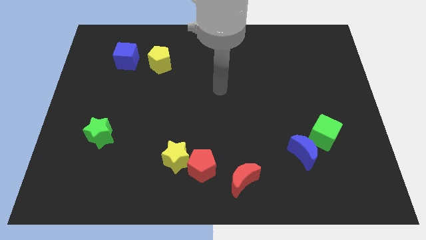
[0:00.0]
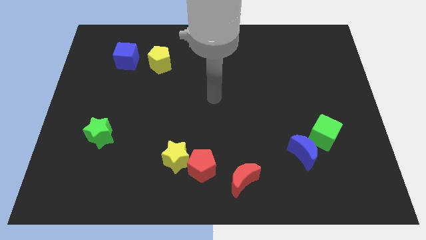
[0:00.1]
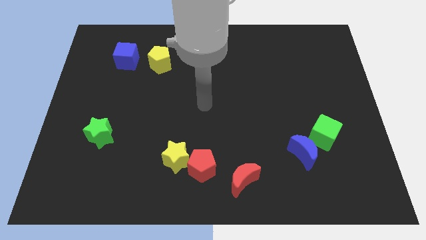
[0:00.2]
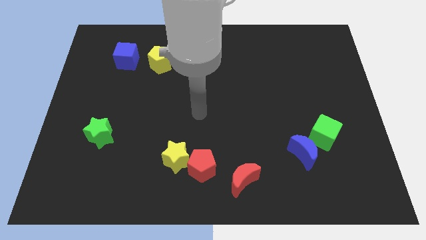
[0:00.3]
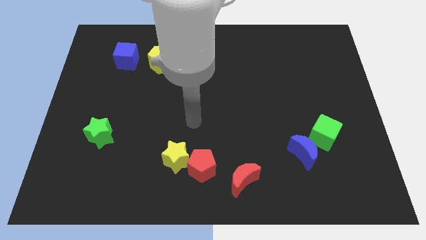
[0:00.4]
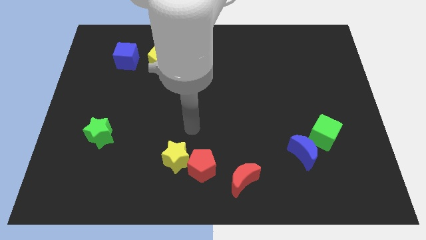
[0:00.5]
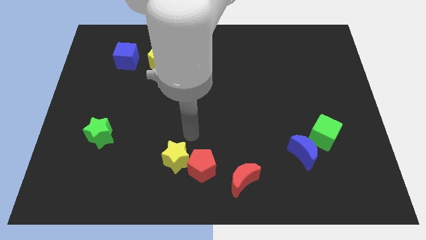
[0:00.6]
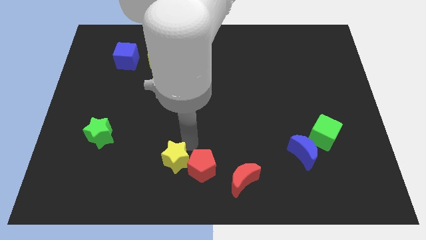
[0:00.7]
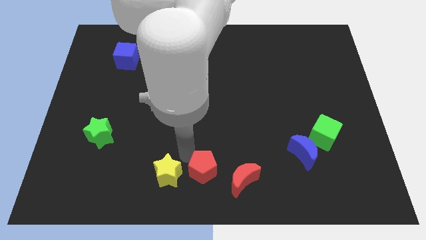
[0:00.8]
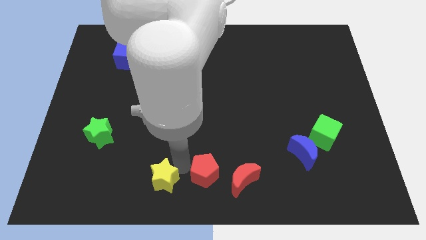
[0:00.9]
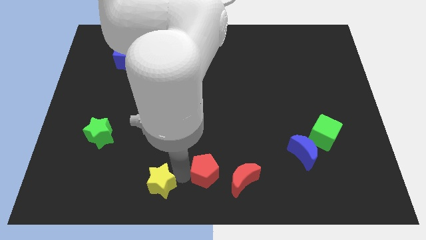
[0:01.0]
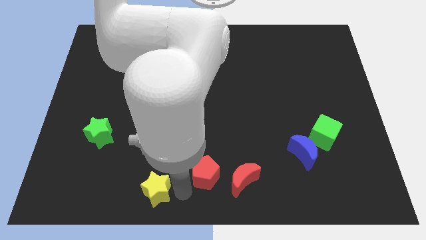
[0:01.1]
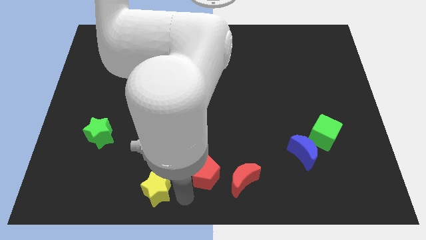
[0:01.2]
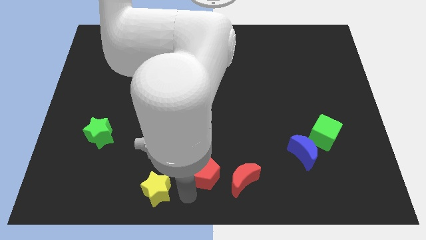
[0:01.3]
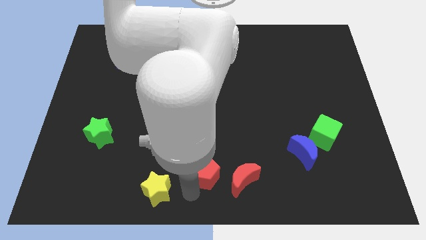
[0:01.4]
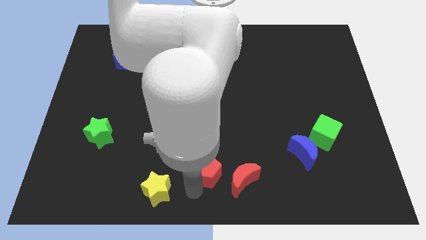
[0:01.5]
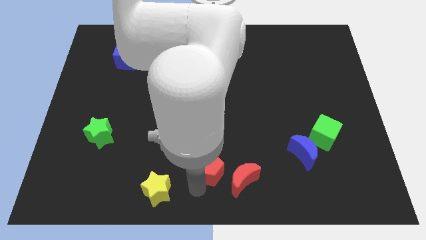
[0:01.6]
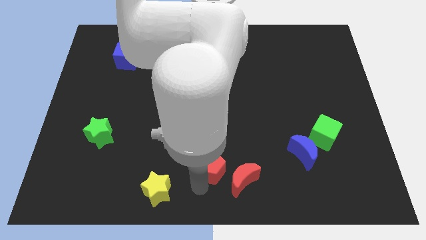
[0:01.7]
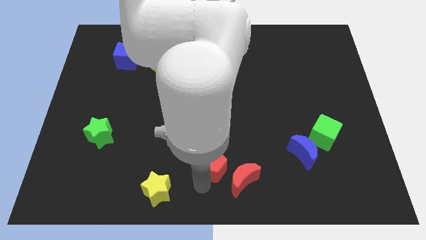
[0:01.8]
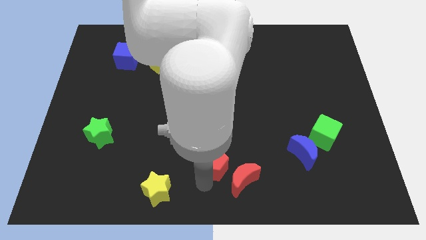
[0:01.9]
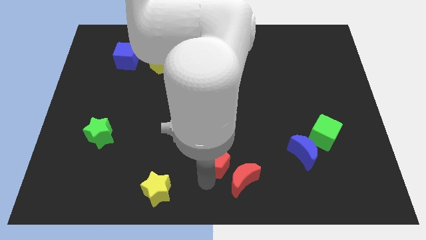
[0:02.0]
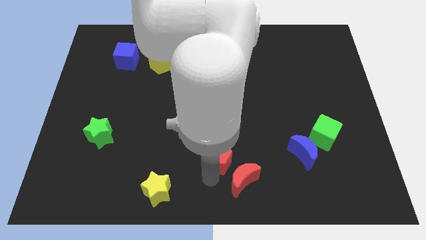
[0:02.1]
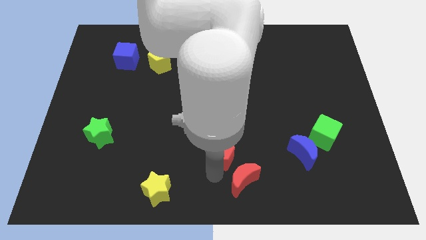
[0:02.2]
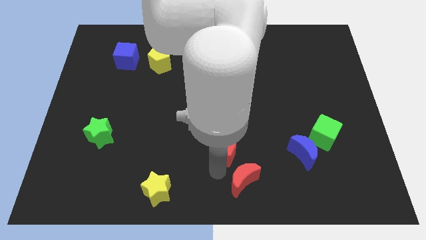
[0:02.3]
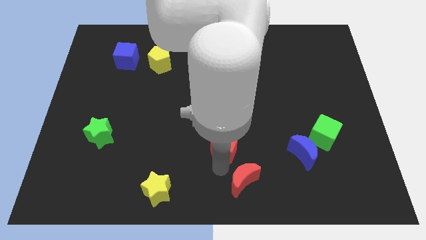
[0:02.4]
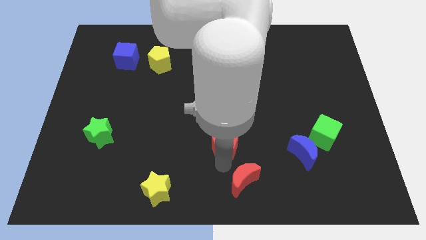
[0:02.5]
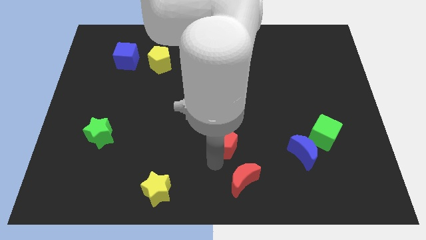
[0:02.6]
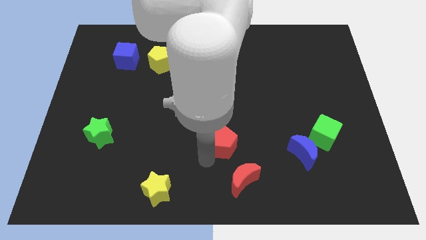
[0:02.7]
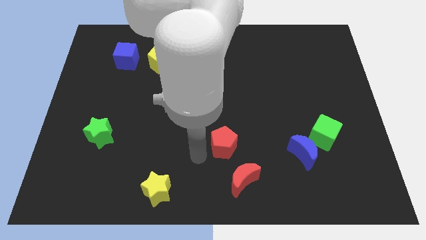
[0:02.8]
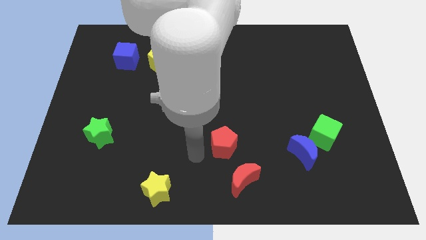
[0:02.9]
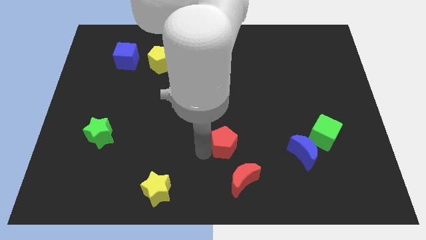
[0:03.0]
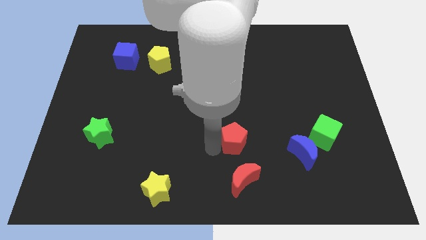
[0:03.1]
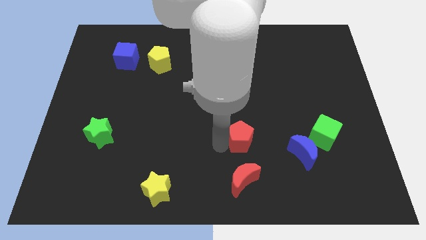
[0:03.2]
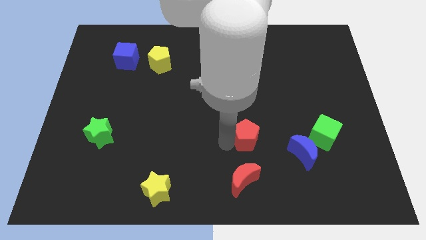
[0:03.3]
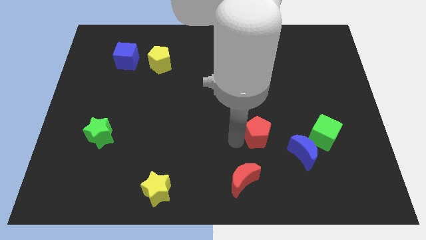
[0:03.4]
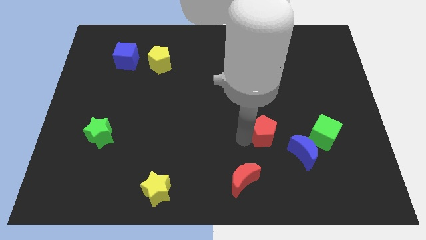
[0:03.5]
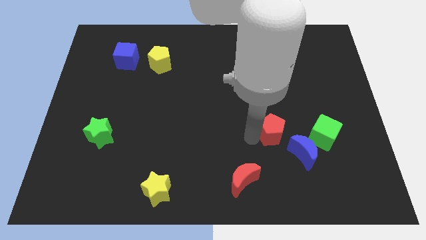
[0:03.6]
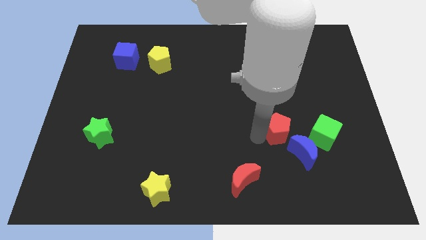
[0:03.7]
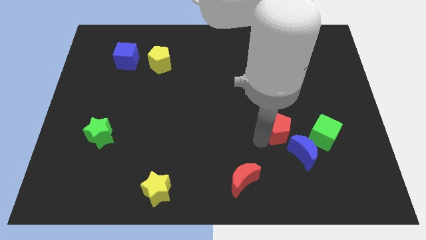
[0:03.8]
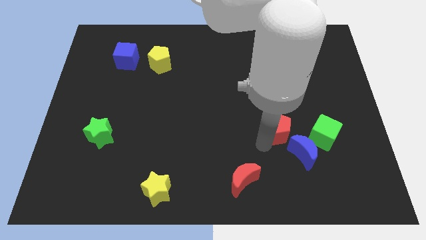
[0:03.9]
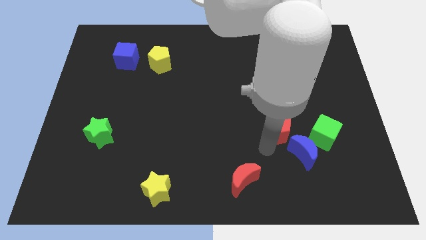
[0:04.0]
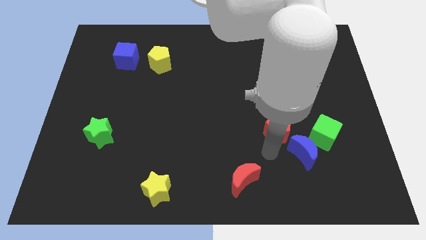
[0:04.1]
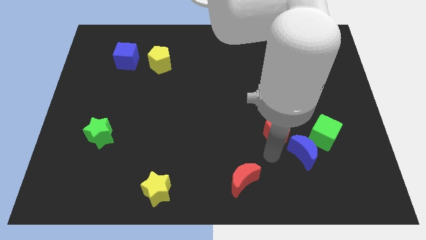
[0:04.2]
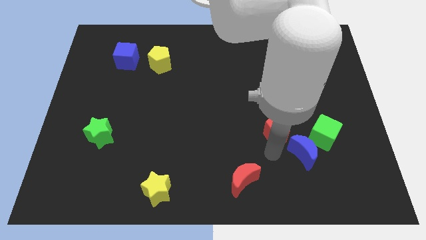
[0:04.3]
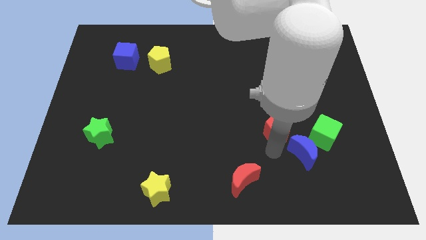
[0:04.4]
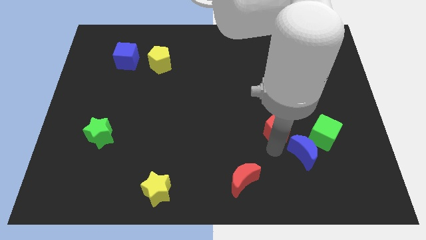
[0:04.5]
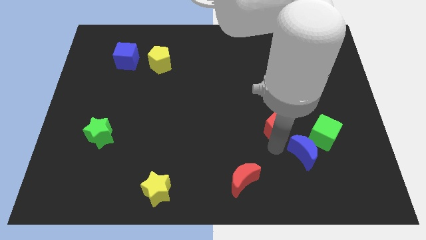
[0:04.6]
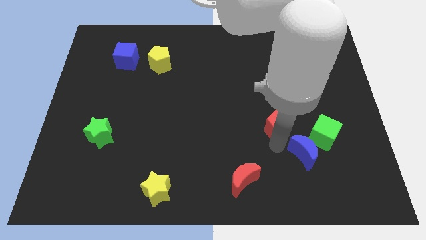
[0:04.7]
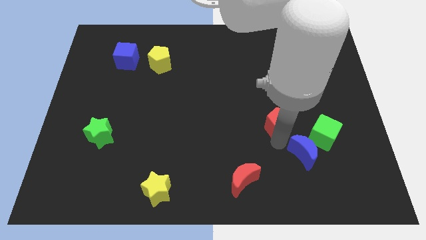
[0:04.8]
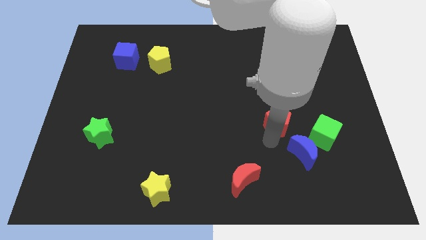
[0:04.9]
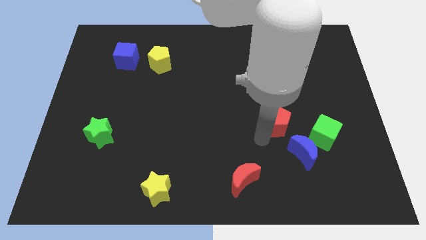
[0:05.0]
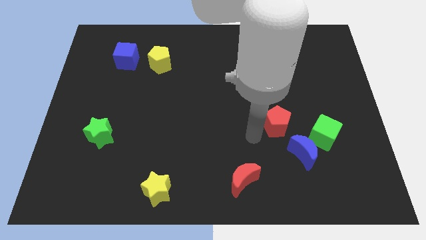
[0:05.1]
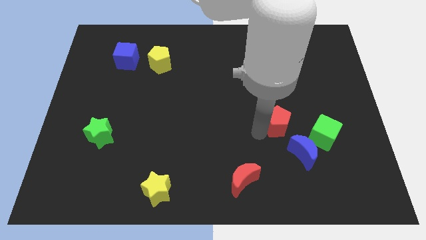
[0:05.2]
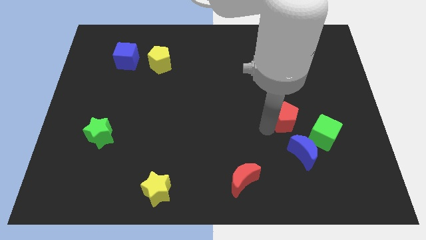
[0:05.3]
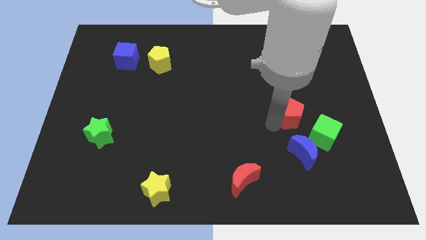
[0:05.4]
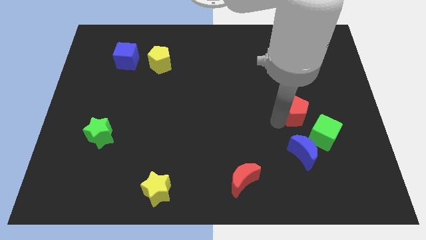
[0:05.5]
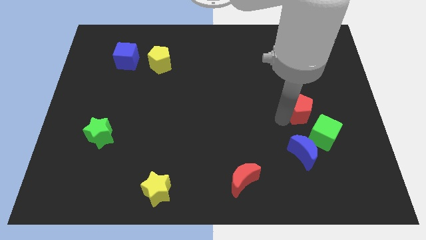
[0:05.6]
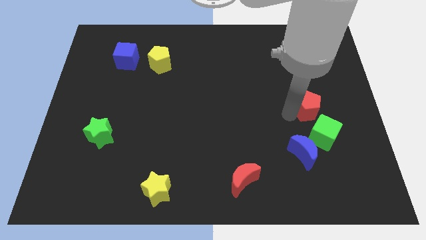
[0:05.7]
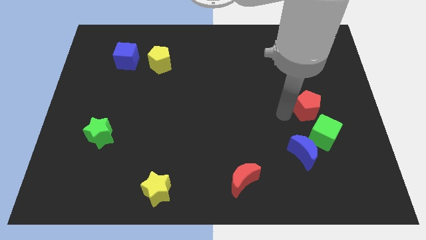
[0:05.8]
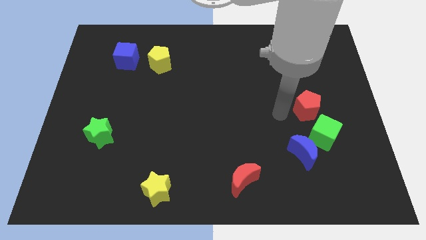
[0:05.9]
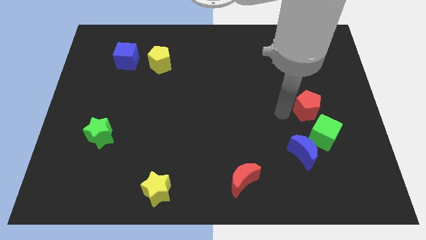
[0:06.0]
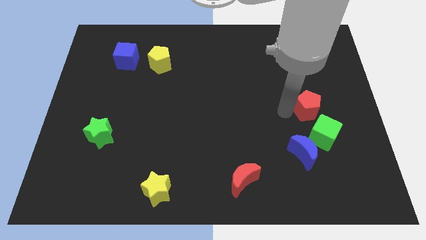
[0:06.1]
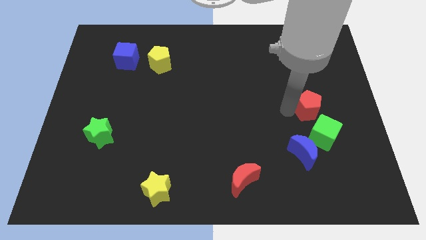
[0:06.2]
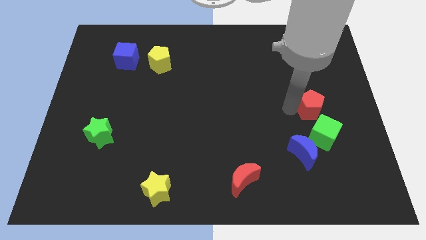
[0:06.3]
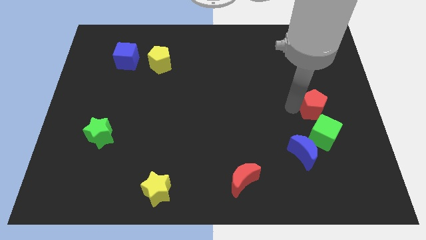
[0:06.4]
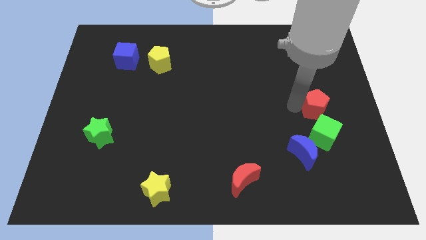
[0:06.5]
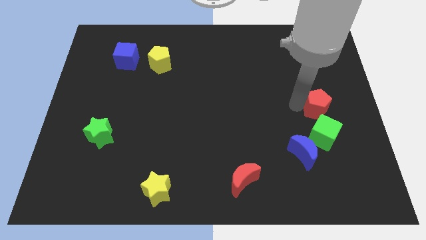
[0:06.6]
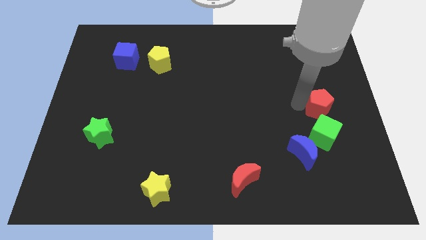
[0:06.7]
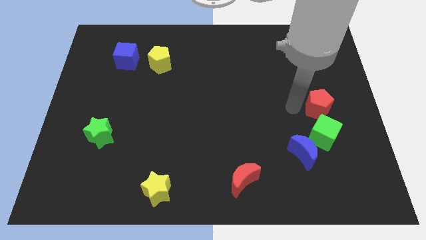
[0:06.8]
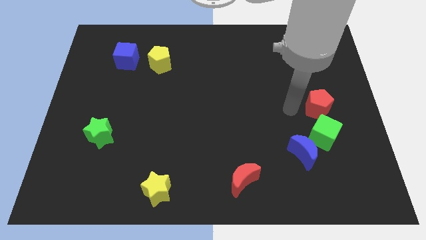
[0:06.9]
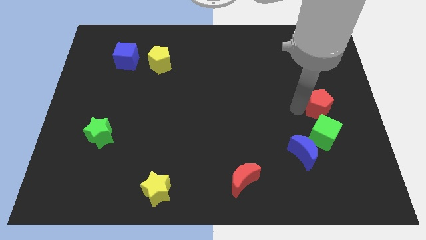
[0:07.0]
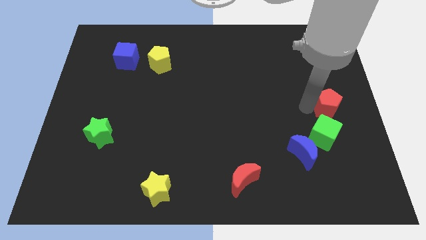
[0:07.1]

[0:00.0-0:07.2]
push the red pentagon to the center right

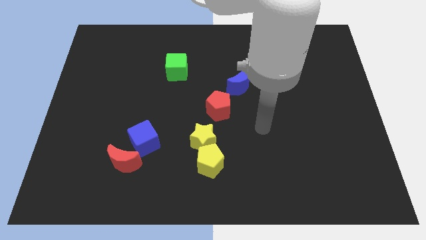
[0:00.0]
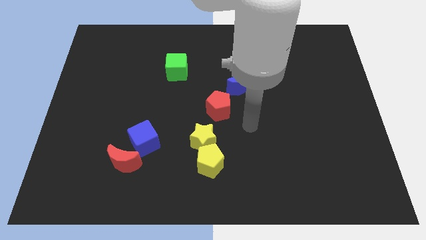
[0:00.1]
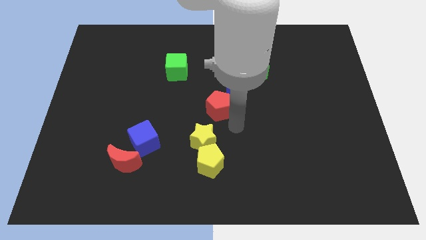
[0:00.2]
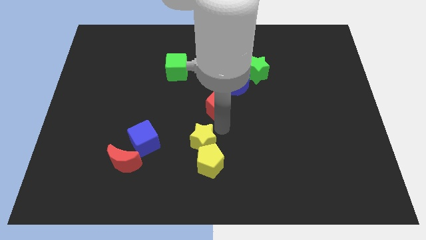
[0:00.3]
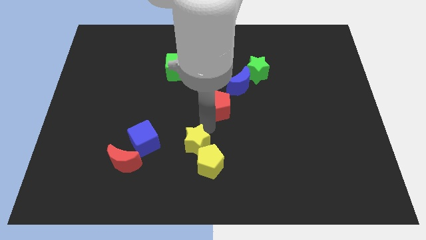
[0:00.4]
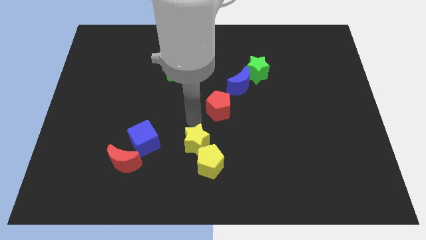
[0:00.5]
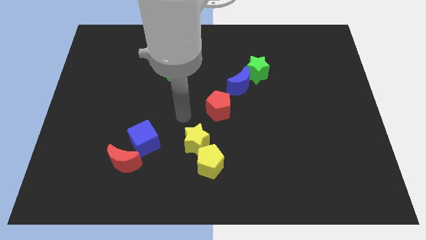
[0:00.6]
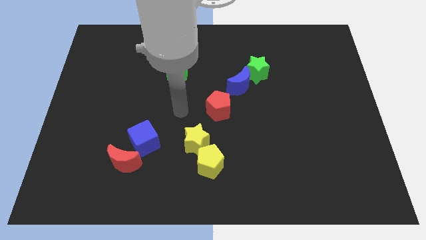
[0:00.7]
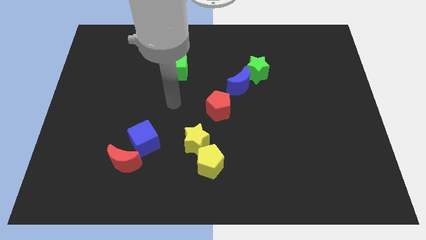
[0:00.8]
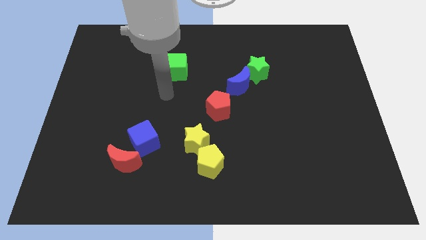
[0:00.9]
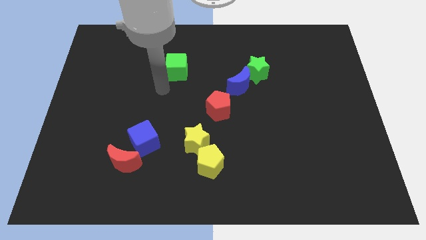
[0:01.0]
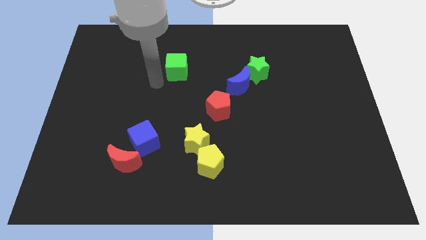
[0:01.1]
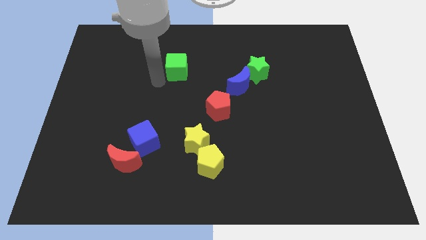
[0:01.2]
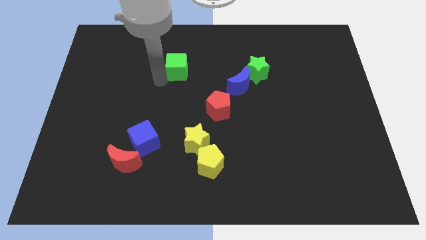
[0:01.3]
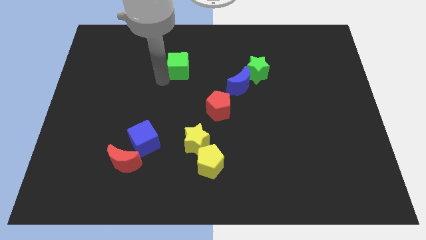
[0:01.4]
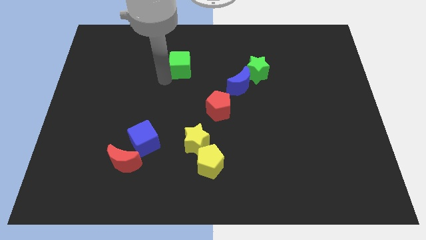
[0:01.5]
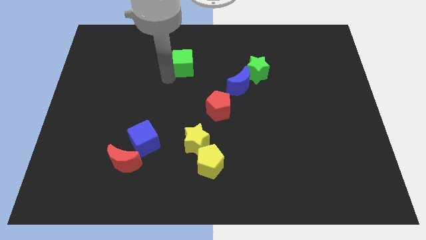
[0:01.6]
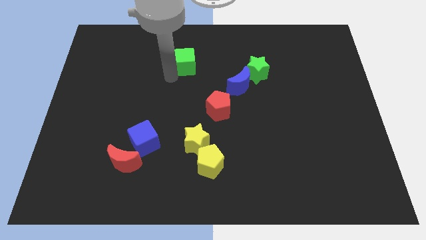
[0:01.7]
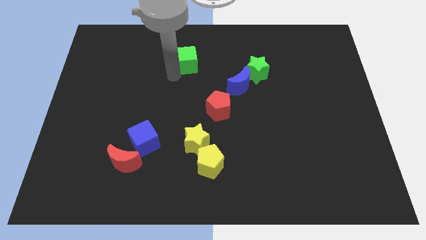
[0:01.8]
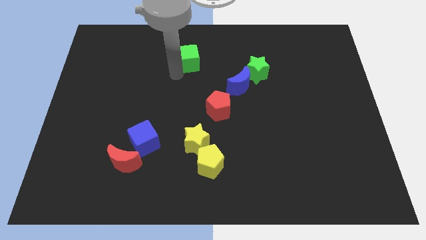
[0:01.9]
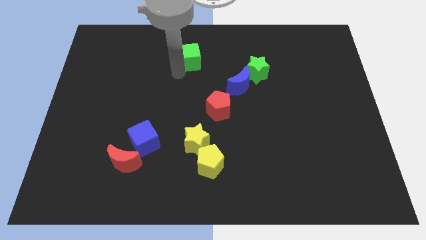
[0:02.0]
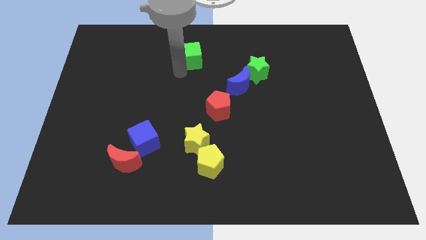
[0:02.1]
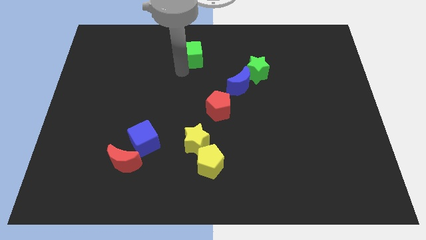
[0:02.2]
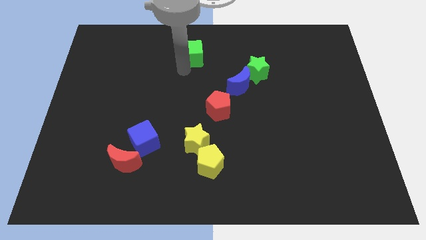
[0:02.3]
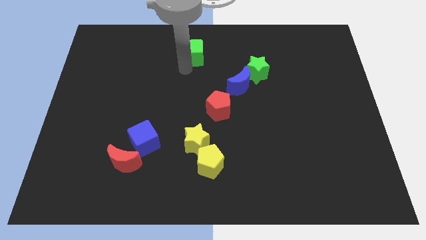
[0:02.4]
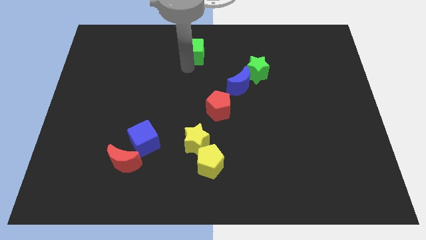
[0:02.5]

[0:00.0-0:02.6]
move the green cube to the top
